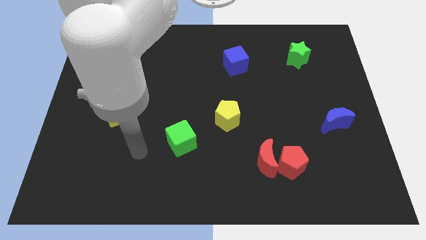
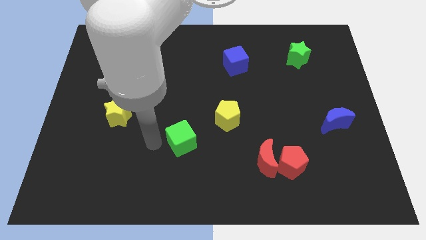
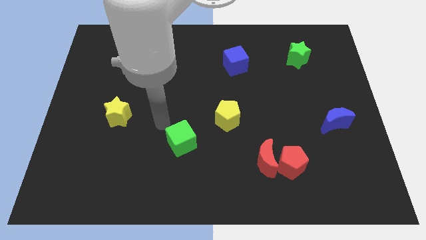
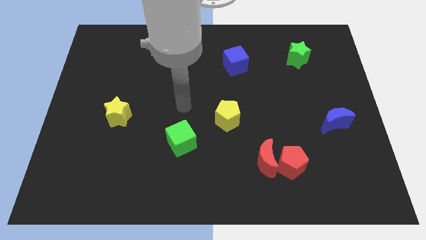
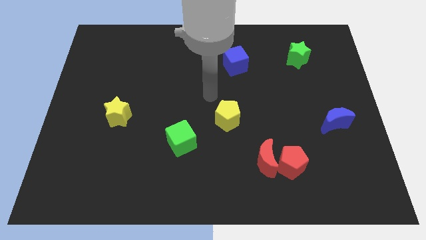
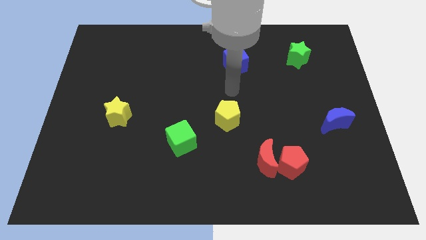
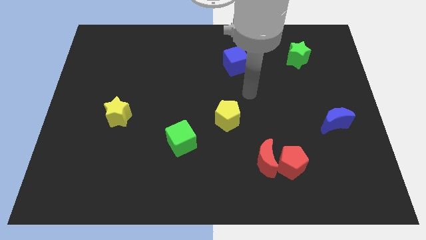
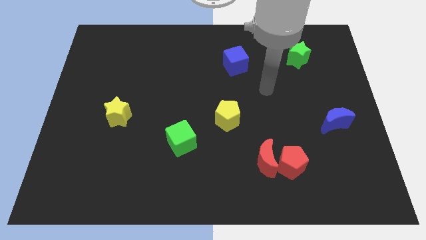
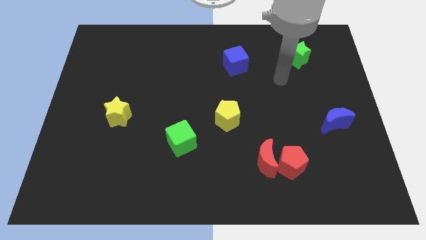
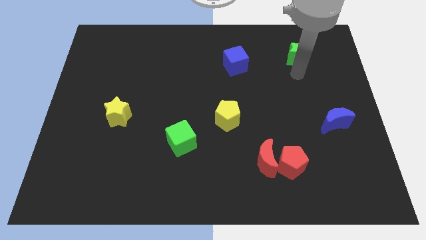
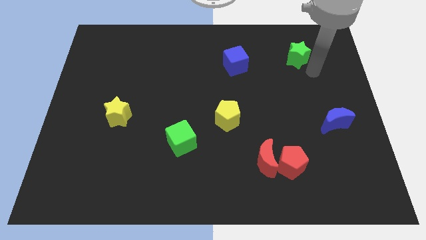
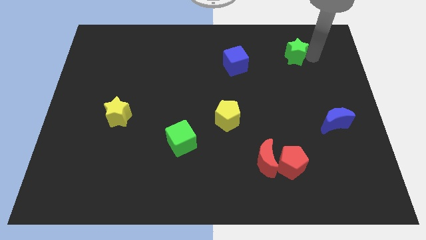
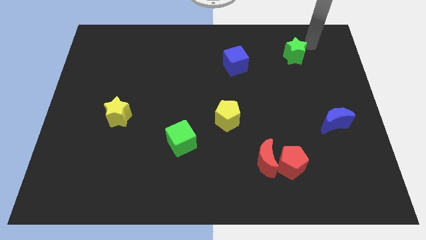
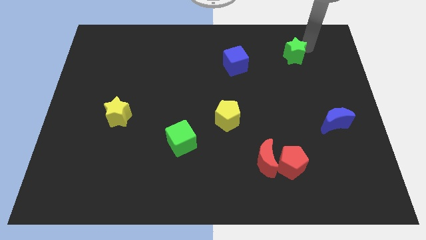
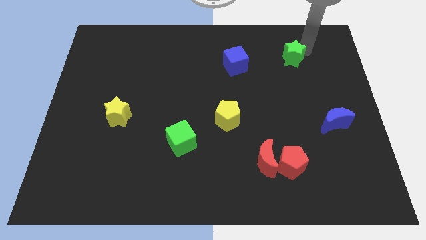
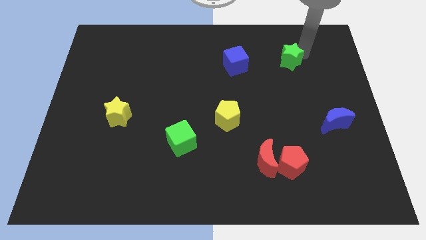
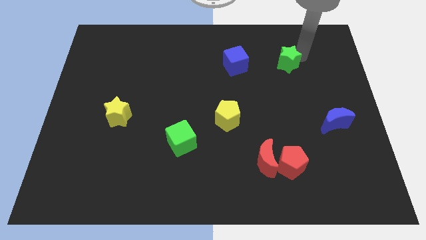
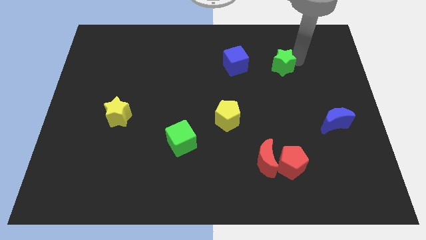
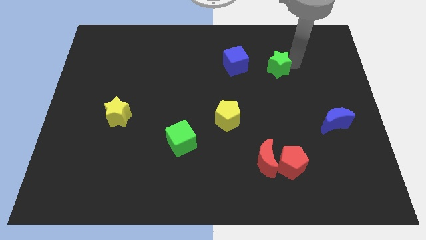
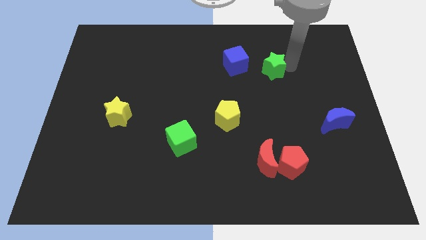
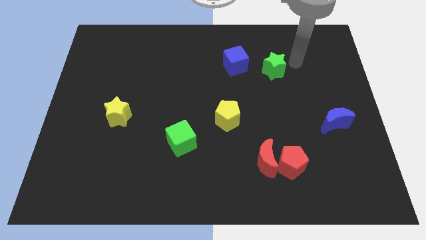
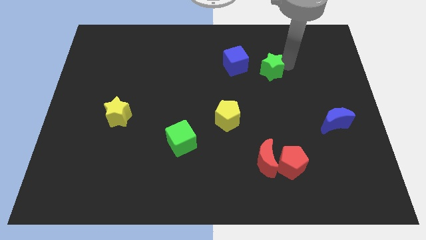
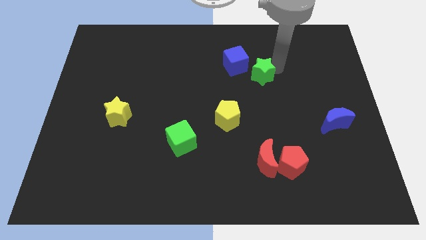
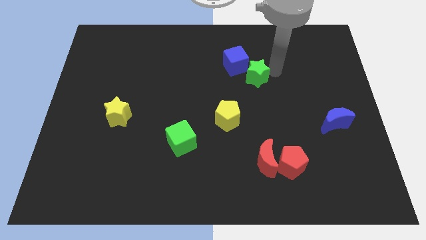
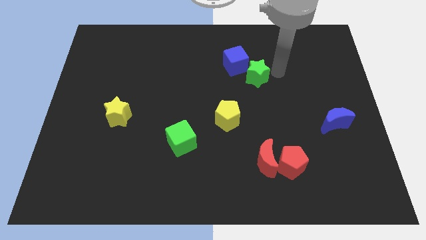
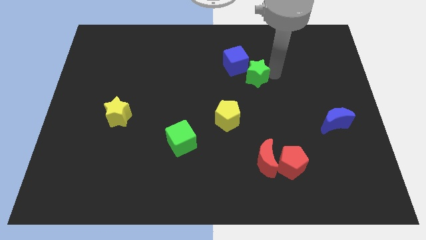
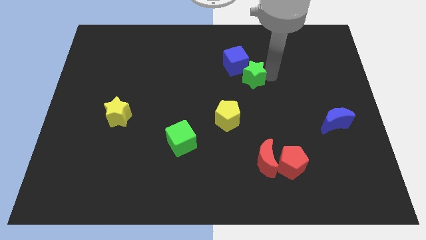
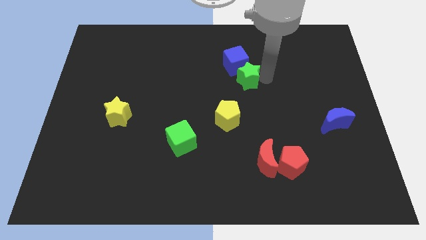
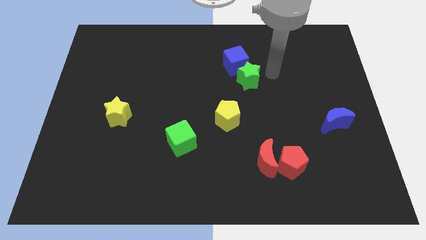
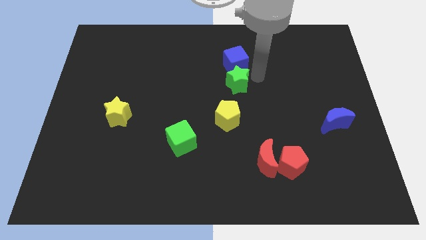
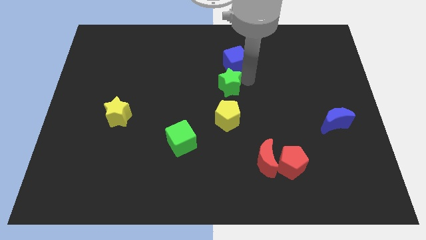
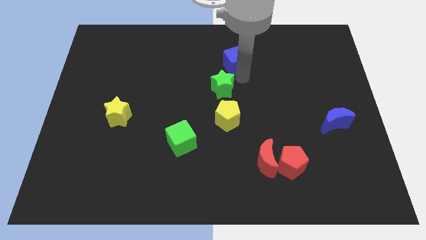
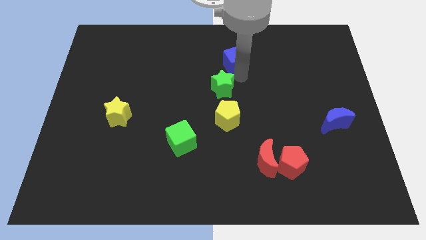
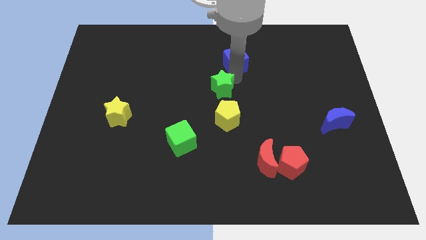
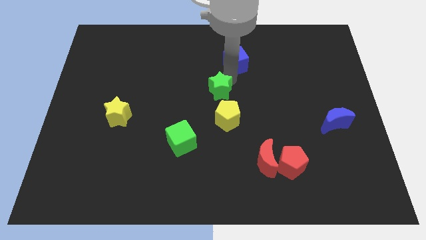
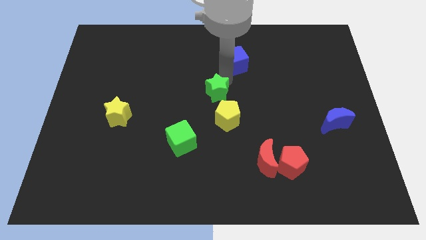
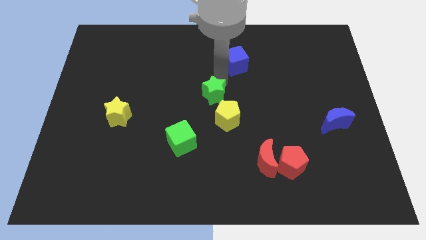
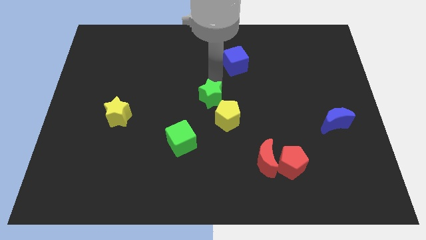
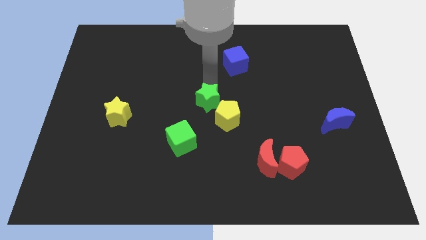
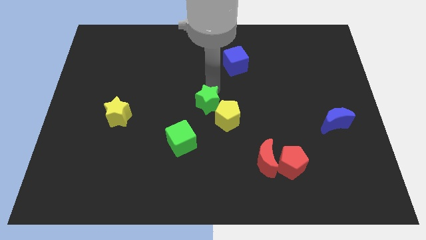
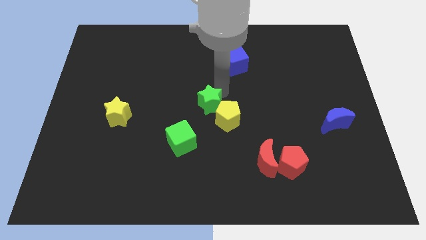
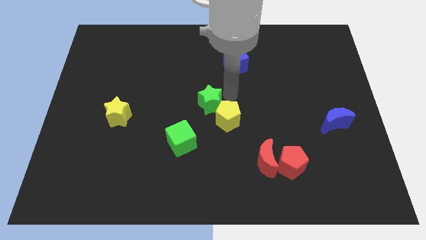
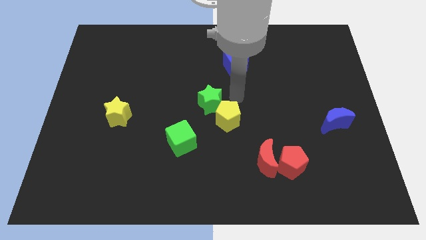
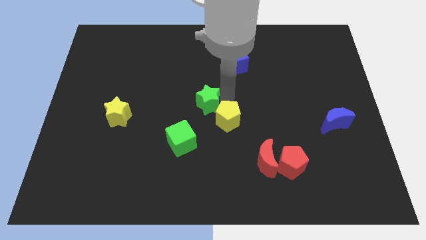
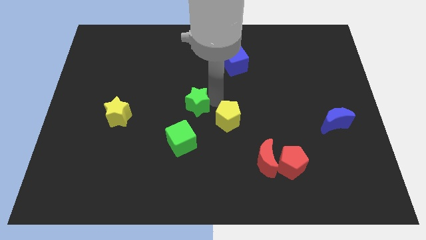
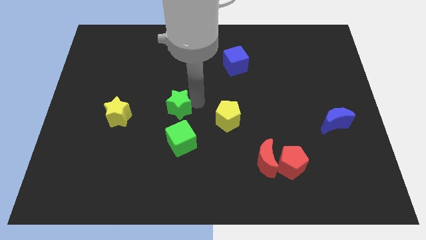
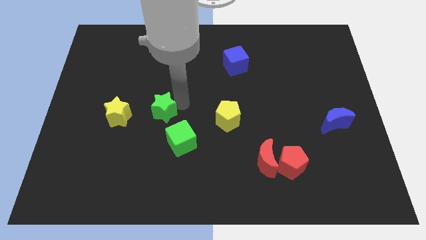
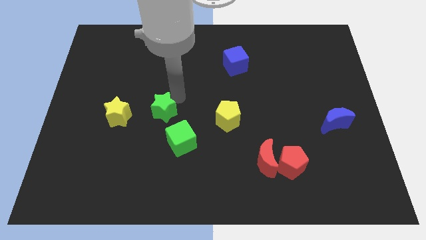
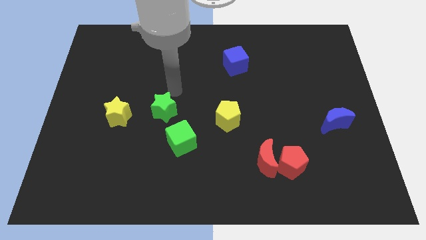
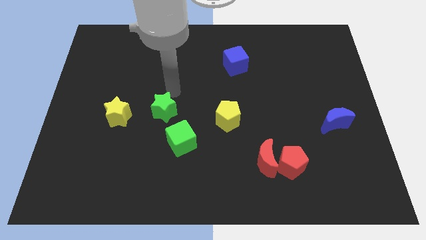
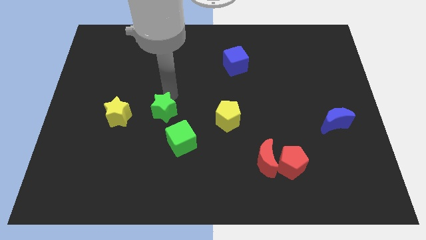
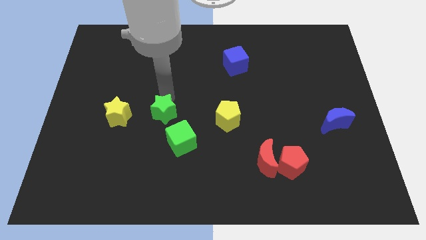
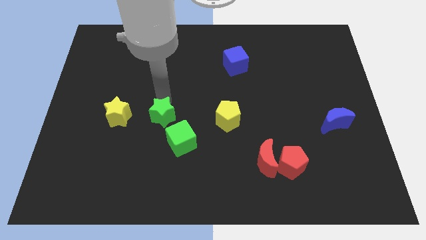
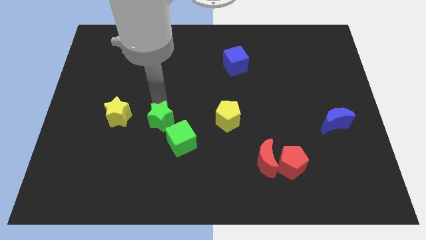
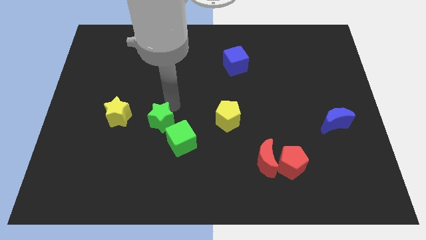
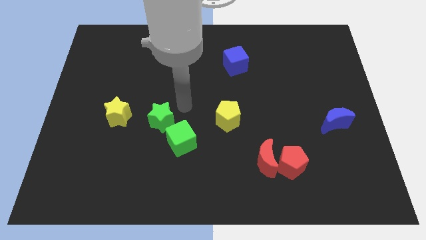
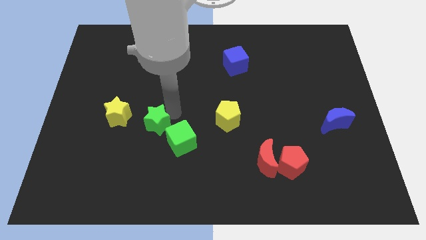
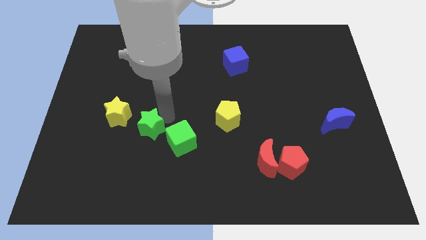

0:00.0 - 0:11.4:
push the green star to the bottom right of the yellow star

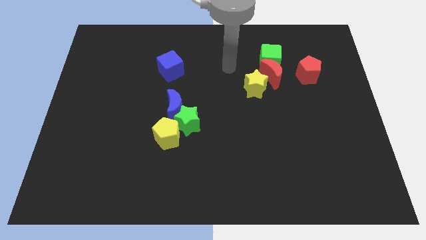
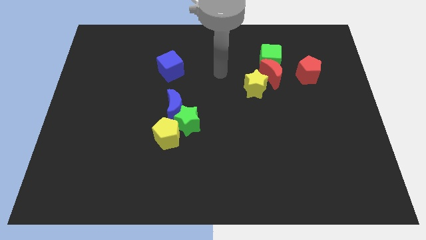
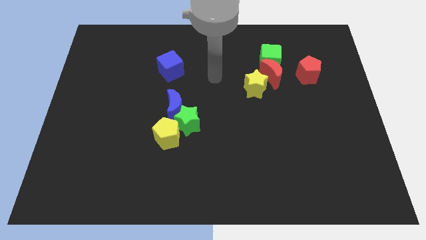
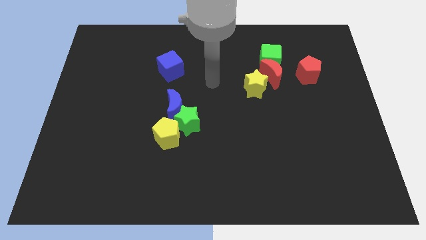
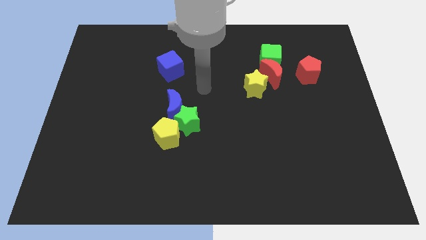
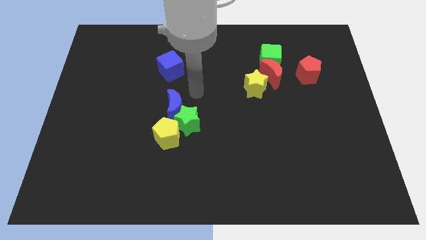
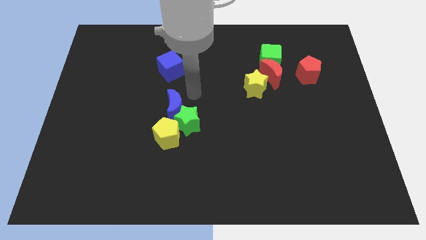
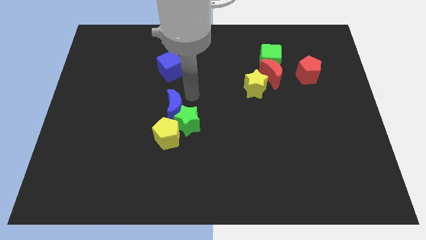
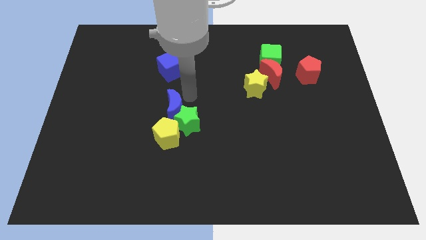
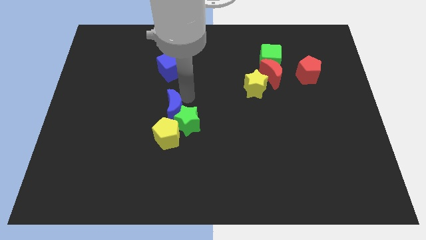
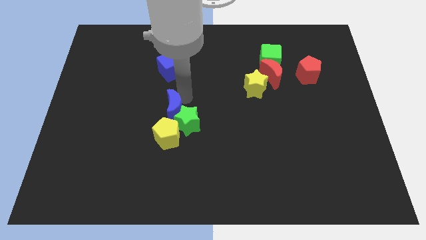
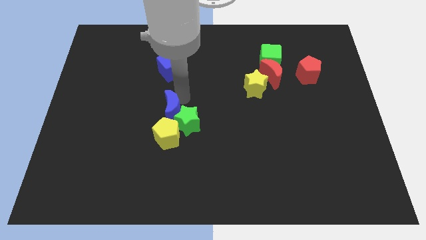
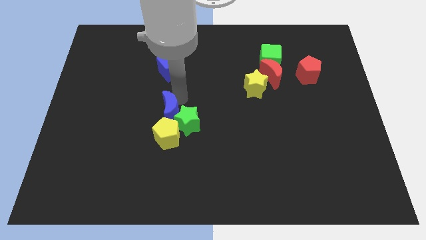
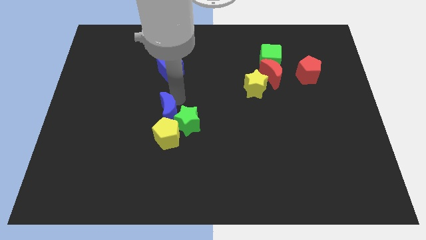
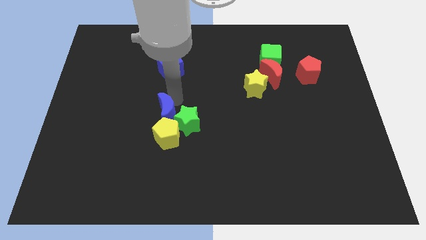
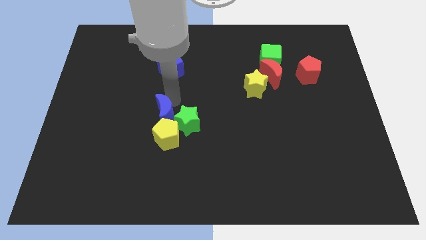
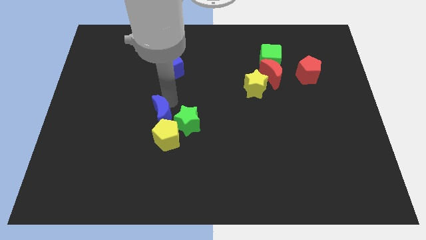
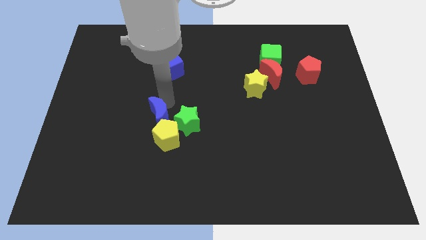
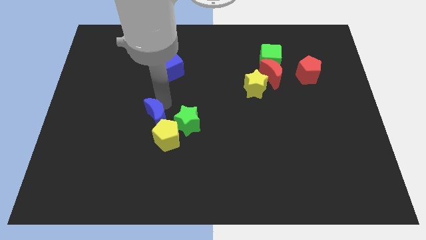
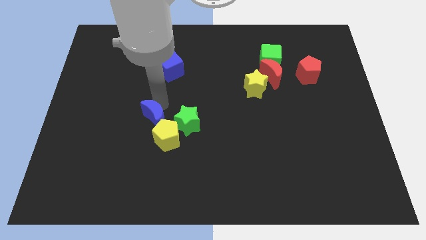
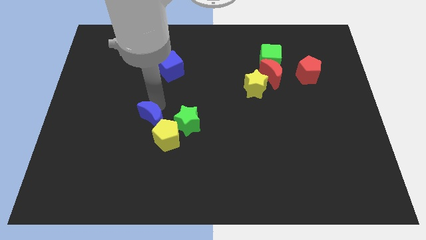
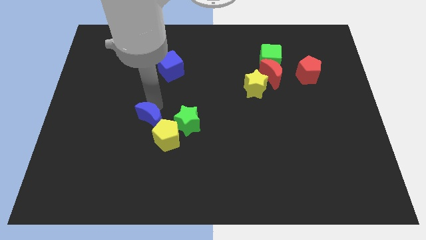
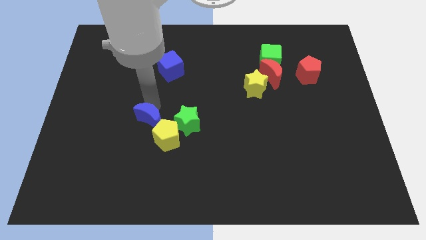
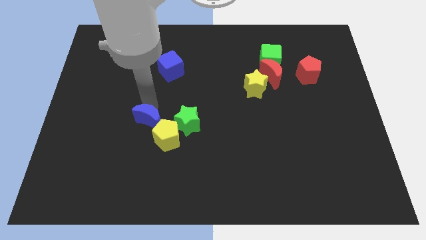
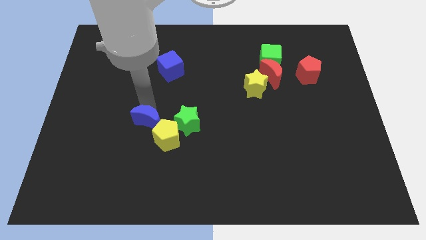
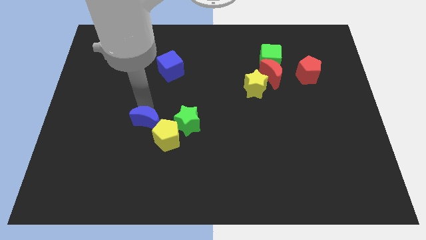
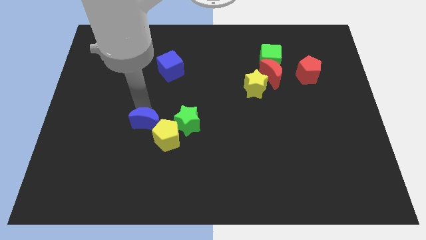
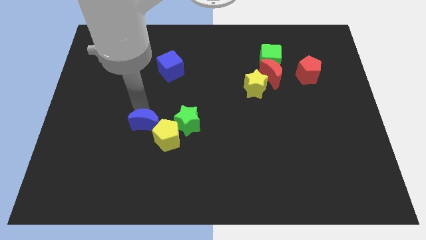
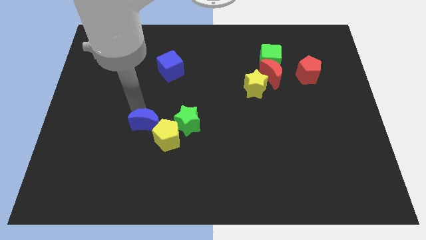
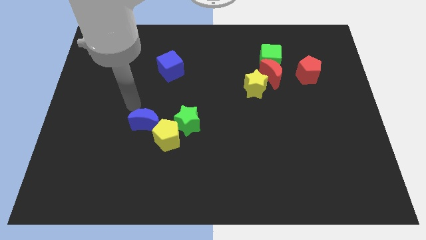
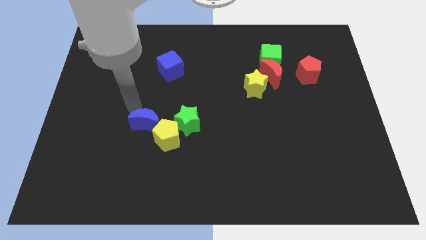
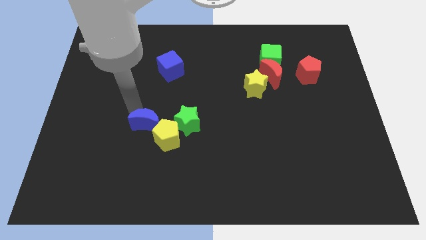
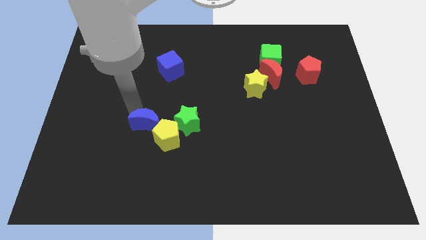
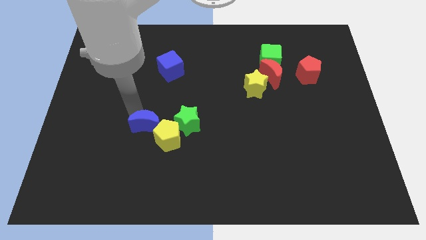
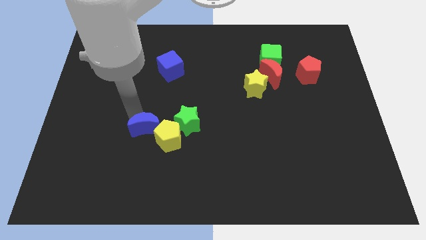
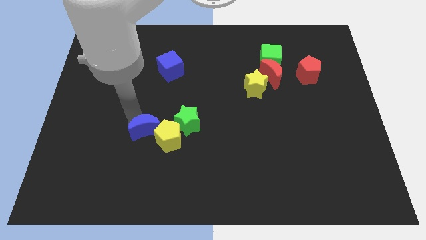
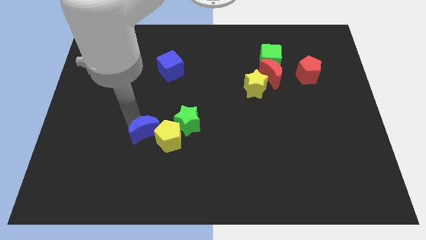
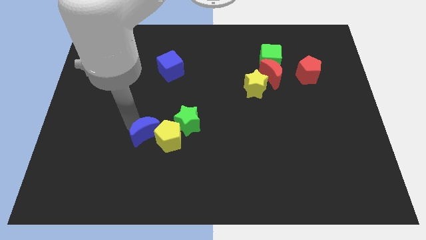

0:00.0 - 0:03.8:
push the blue moon to the bottom left of the green star
